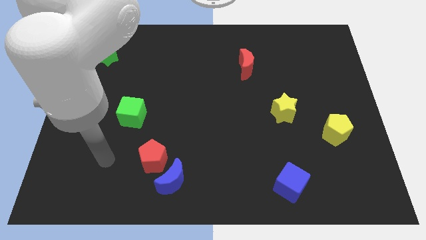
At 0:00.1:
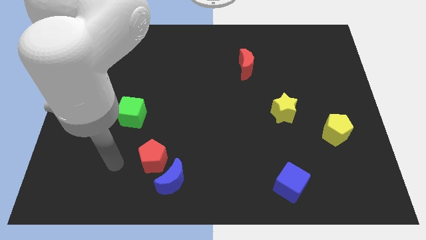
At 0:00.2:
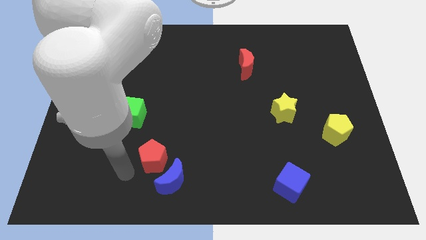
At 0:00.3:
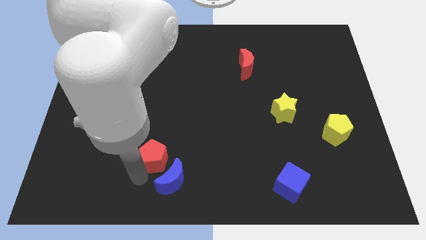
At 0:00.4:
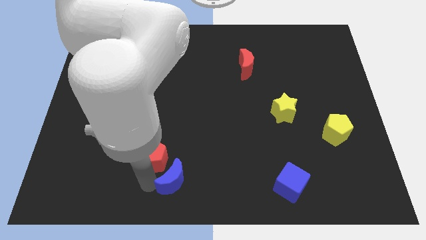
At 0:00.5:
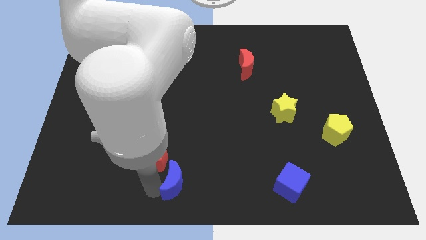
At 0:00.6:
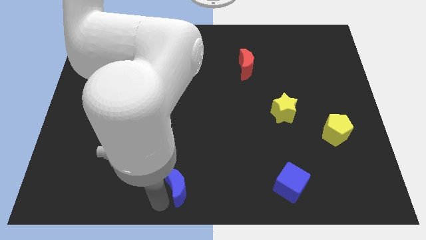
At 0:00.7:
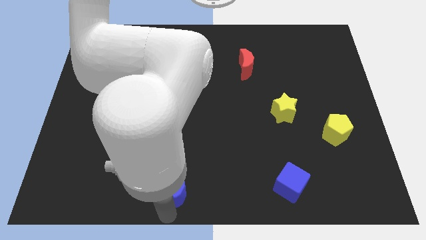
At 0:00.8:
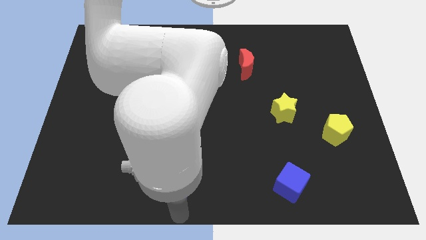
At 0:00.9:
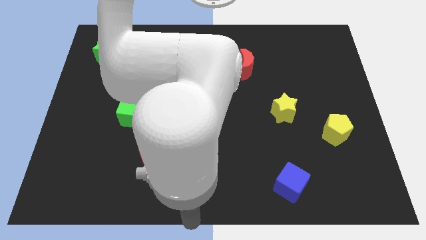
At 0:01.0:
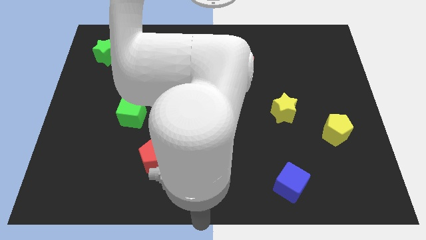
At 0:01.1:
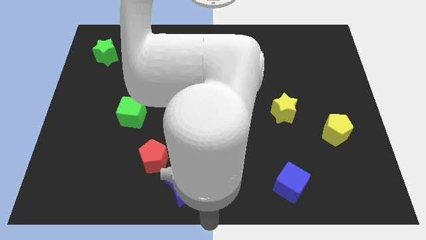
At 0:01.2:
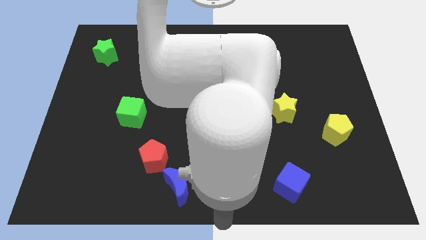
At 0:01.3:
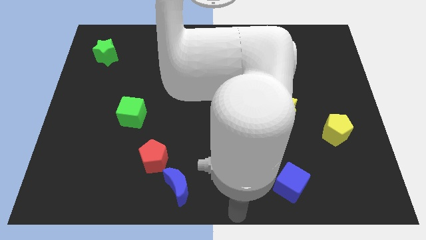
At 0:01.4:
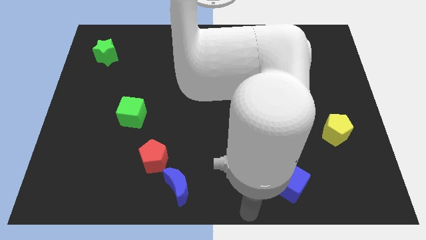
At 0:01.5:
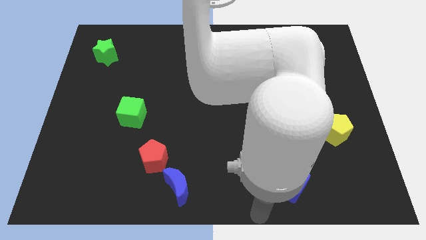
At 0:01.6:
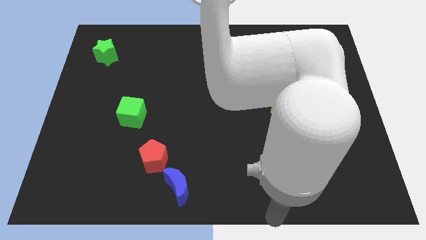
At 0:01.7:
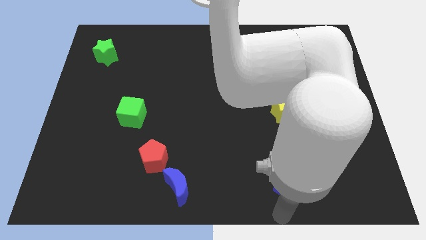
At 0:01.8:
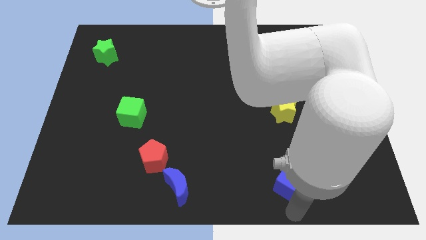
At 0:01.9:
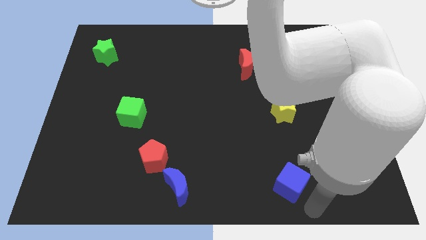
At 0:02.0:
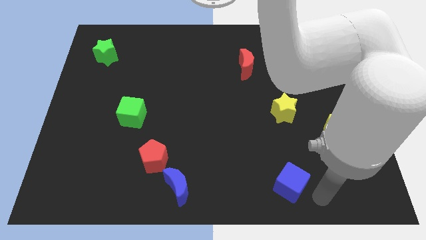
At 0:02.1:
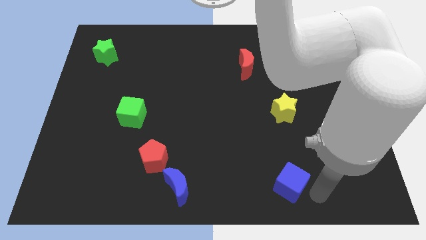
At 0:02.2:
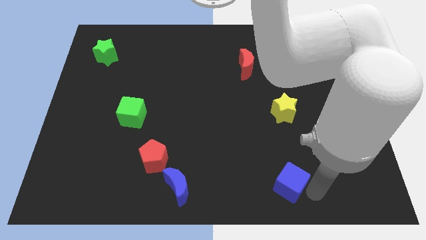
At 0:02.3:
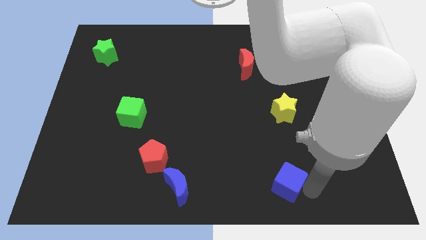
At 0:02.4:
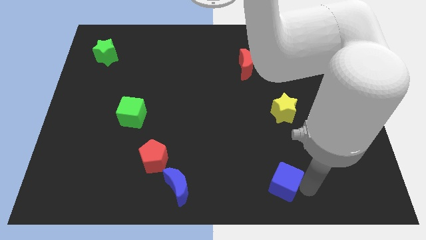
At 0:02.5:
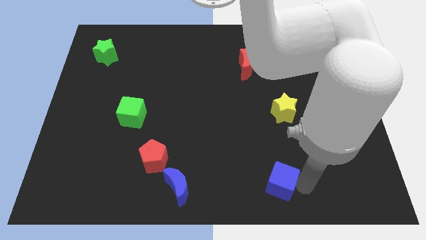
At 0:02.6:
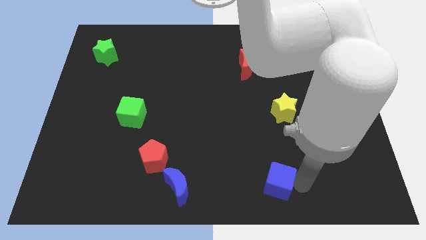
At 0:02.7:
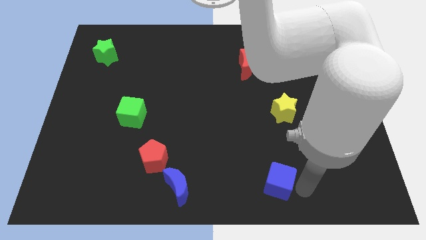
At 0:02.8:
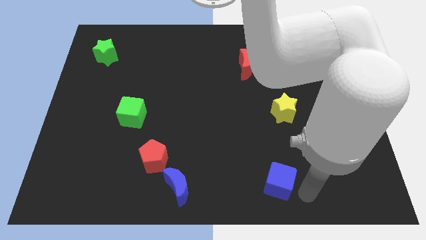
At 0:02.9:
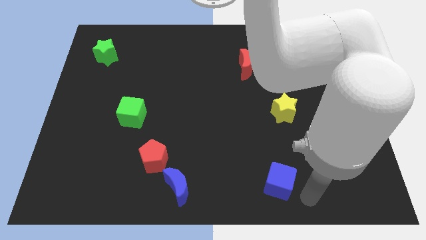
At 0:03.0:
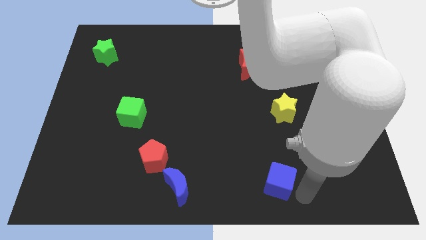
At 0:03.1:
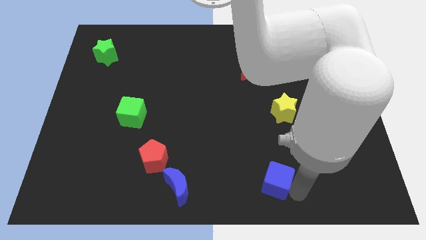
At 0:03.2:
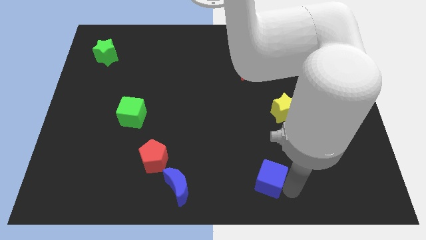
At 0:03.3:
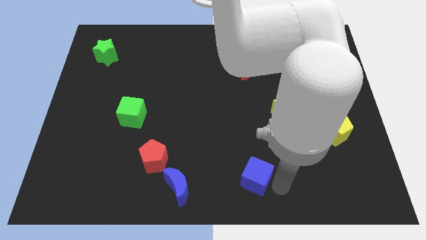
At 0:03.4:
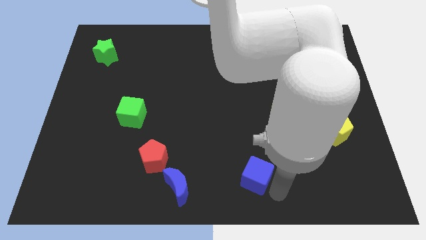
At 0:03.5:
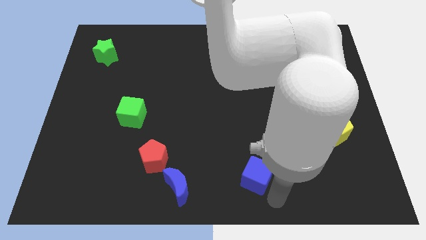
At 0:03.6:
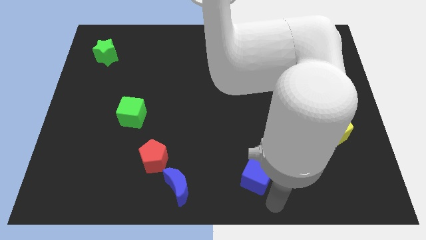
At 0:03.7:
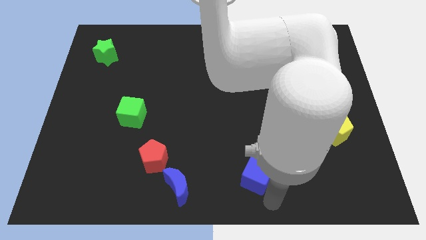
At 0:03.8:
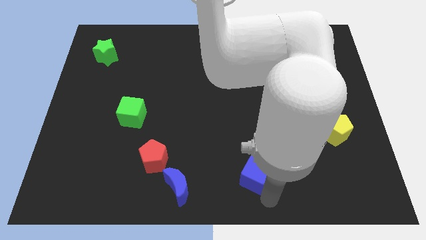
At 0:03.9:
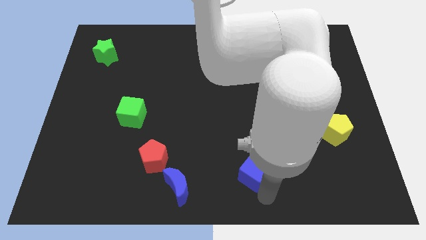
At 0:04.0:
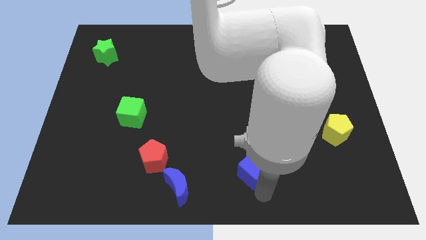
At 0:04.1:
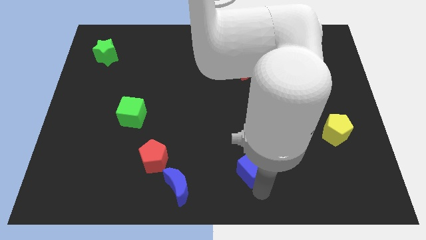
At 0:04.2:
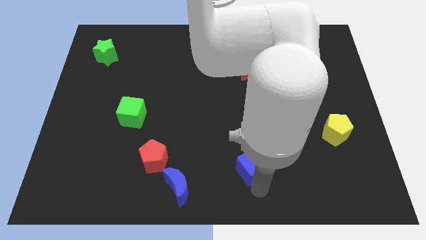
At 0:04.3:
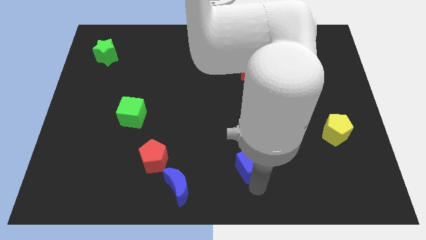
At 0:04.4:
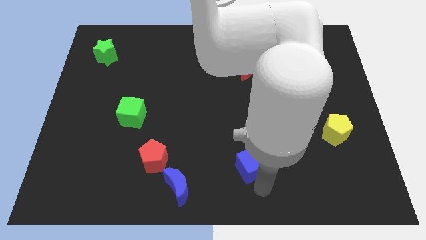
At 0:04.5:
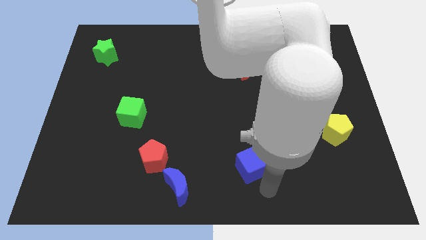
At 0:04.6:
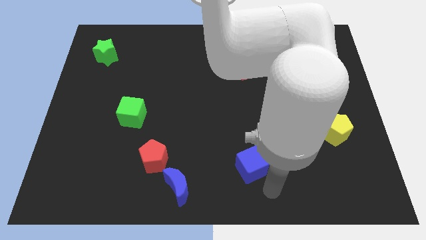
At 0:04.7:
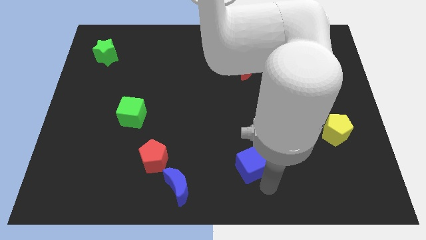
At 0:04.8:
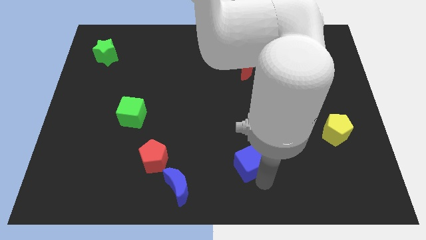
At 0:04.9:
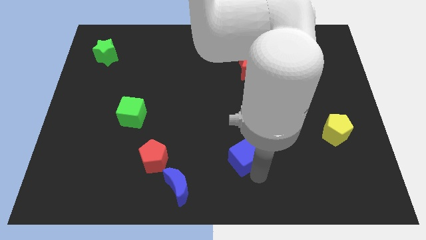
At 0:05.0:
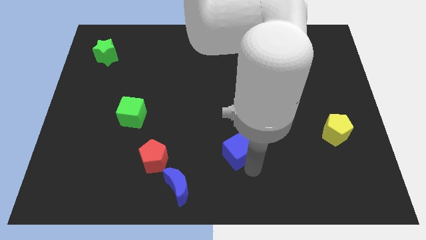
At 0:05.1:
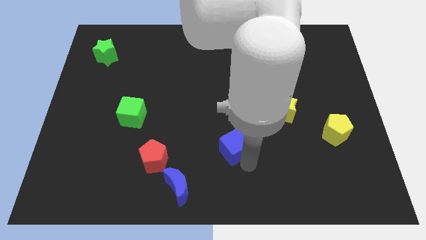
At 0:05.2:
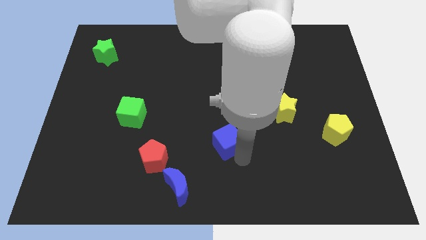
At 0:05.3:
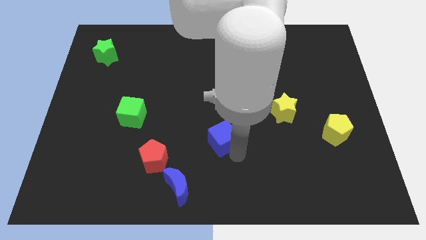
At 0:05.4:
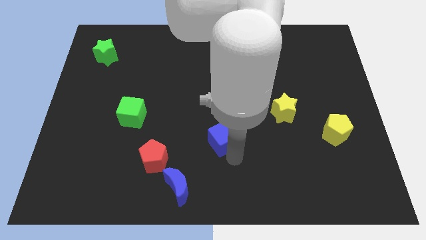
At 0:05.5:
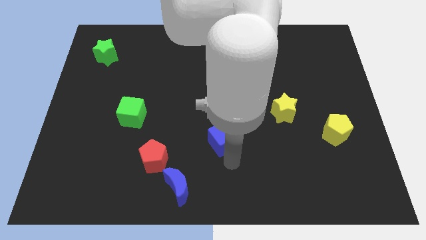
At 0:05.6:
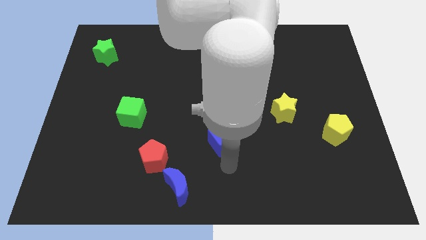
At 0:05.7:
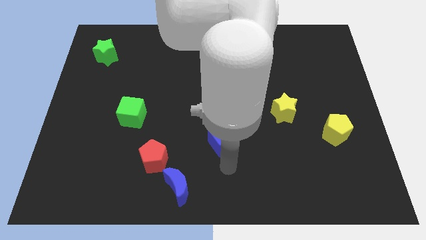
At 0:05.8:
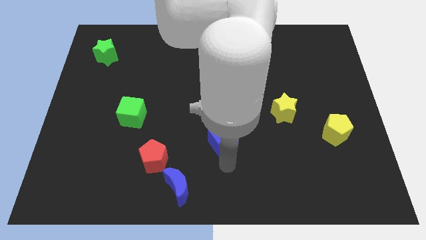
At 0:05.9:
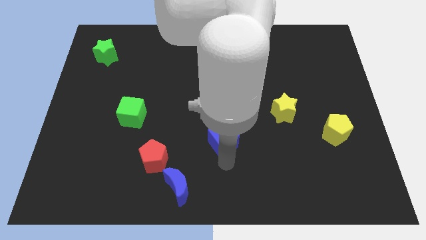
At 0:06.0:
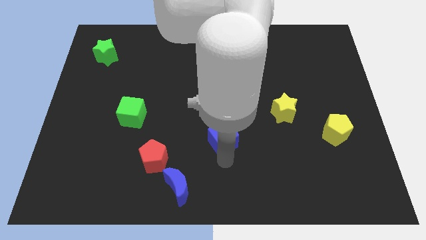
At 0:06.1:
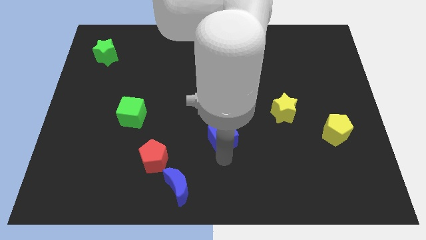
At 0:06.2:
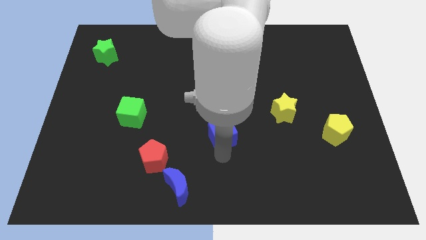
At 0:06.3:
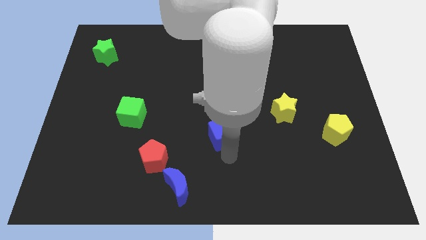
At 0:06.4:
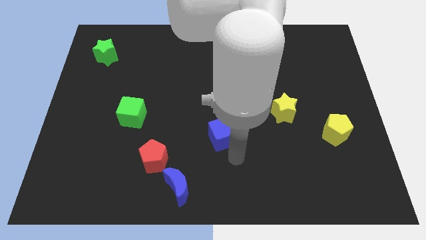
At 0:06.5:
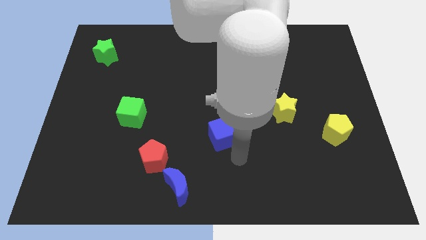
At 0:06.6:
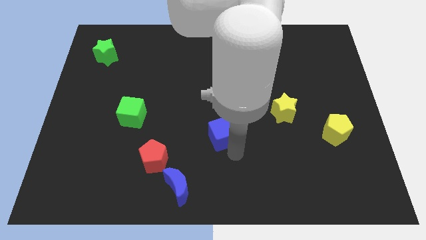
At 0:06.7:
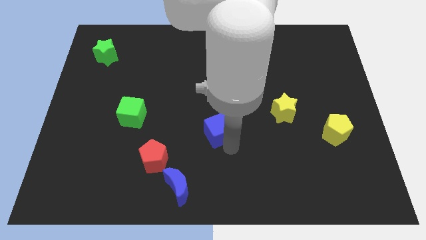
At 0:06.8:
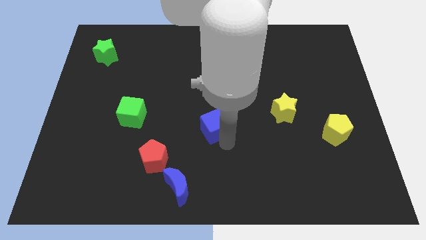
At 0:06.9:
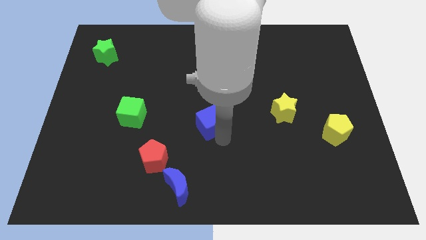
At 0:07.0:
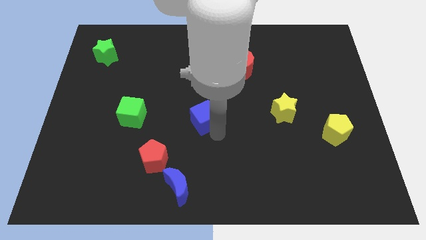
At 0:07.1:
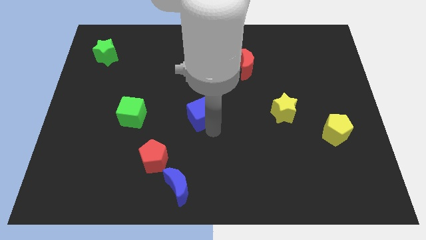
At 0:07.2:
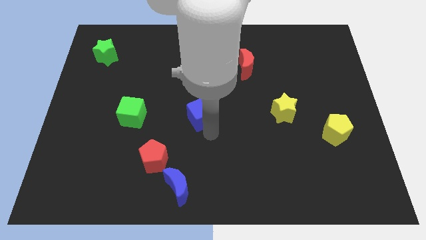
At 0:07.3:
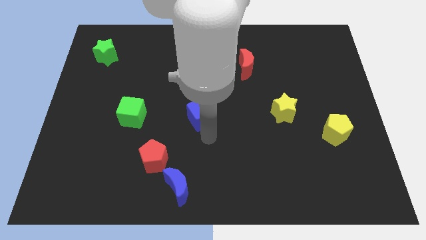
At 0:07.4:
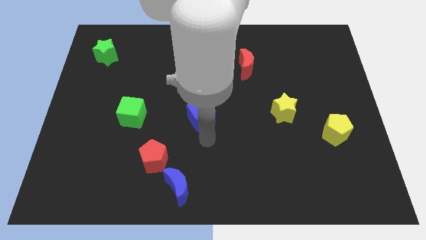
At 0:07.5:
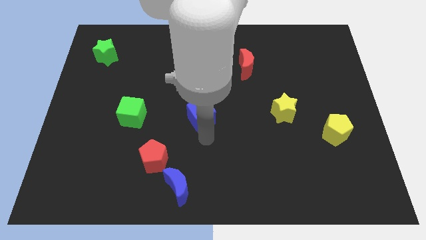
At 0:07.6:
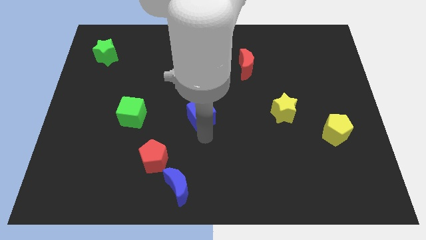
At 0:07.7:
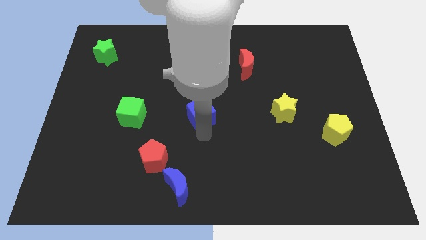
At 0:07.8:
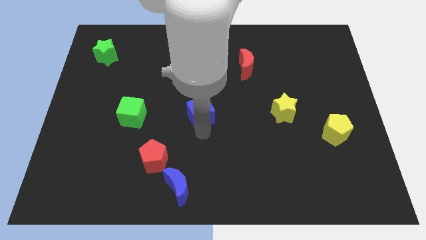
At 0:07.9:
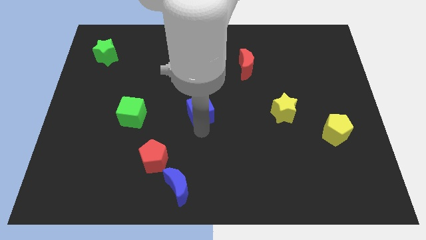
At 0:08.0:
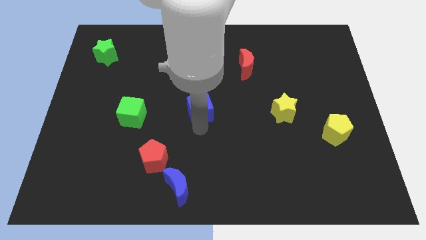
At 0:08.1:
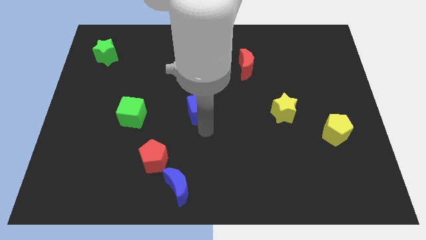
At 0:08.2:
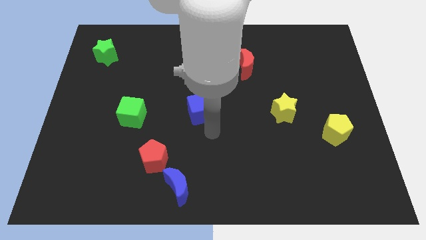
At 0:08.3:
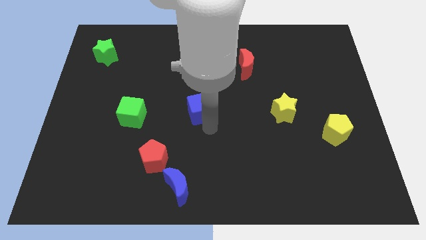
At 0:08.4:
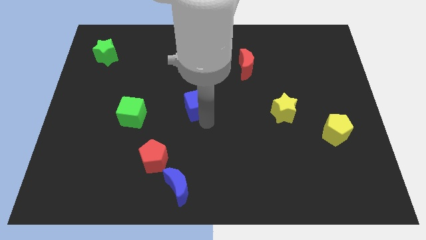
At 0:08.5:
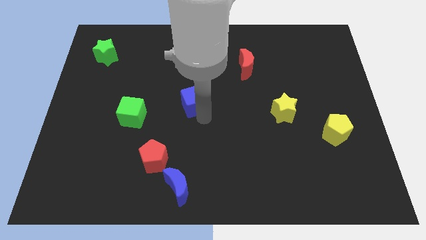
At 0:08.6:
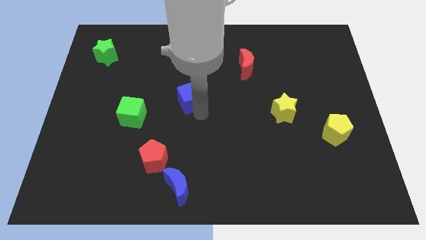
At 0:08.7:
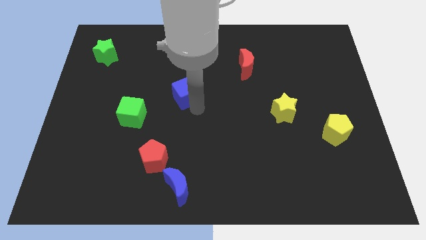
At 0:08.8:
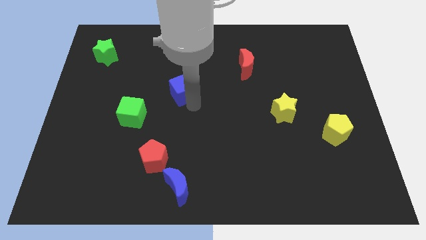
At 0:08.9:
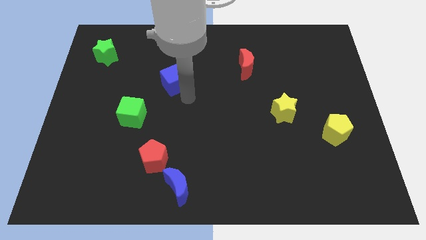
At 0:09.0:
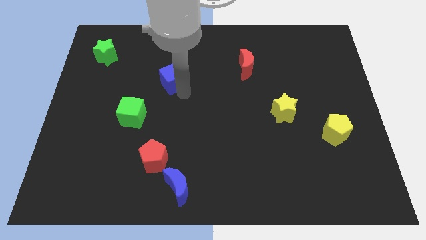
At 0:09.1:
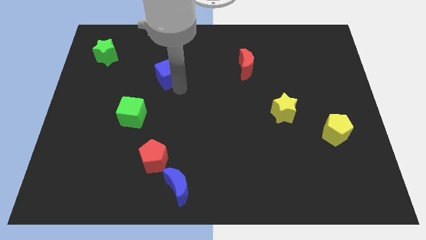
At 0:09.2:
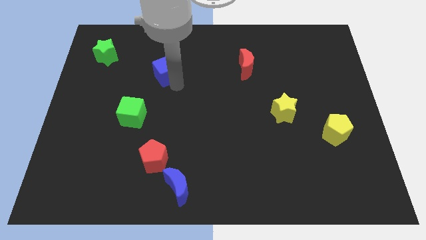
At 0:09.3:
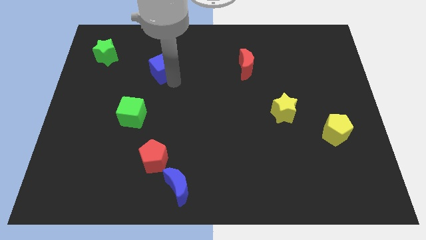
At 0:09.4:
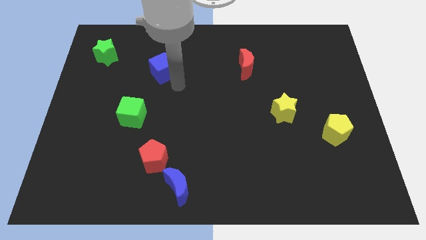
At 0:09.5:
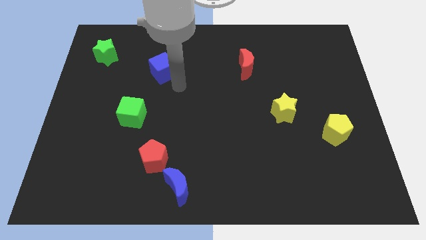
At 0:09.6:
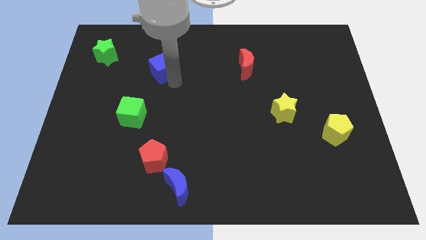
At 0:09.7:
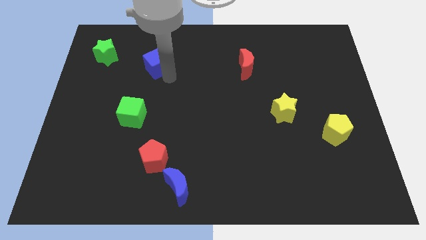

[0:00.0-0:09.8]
put the blue cube to the right of the green star
